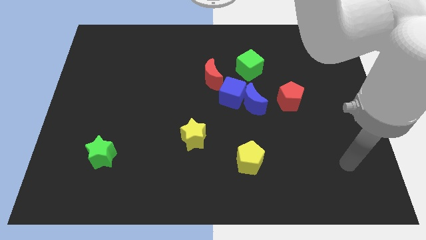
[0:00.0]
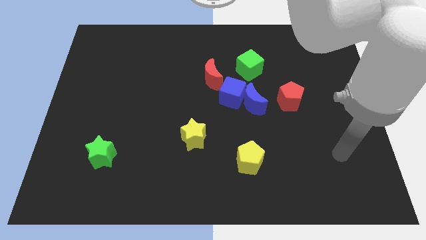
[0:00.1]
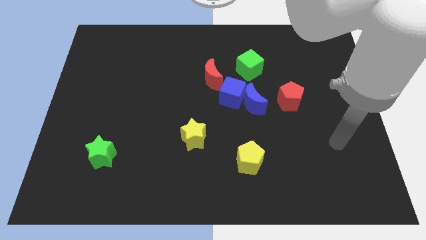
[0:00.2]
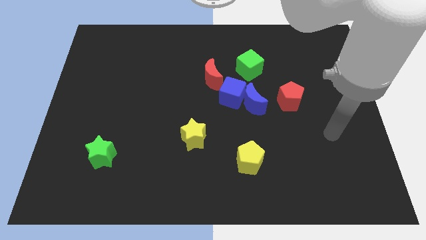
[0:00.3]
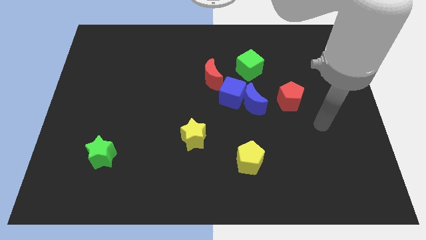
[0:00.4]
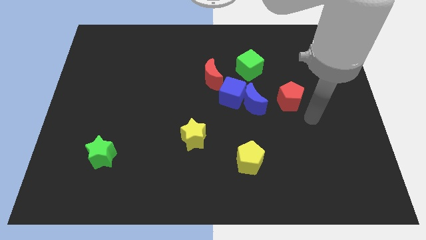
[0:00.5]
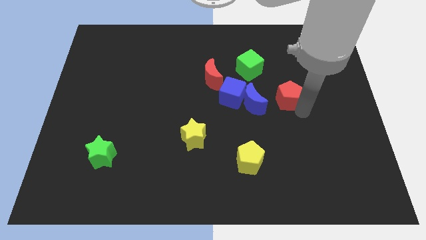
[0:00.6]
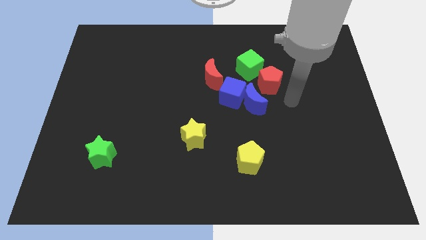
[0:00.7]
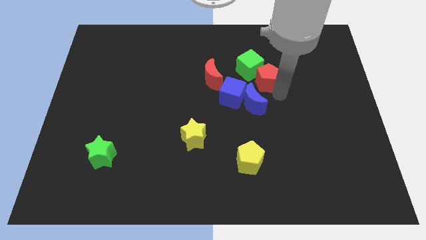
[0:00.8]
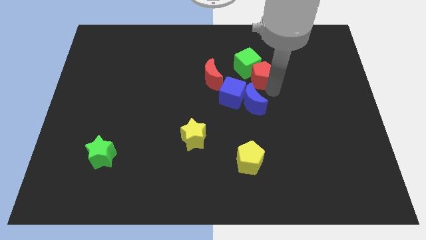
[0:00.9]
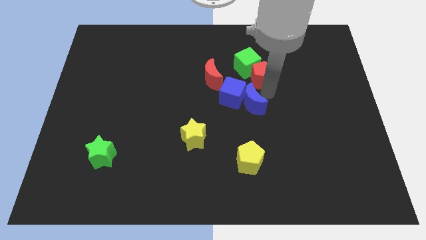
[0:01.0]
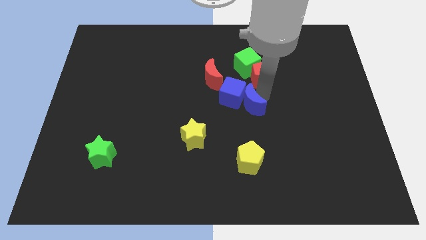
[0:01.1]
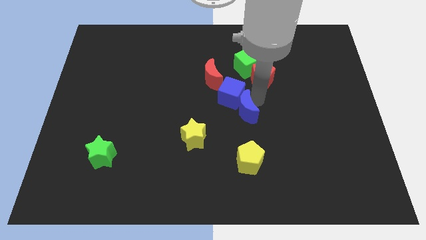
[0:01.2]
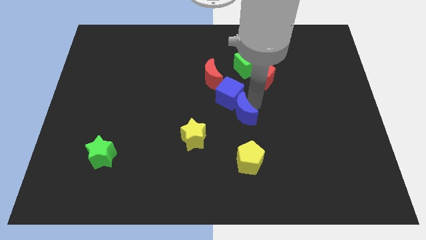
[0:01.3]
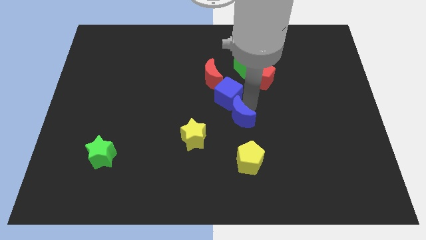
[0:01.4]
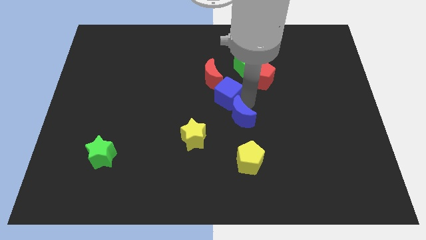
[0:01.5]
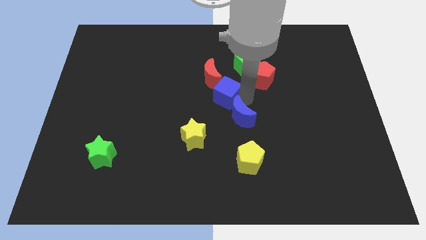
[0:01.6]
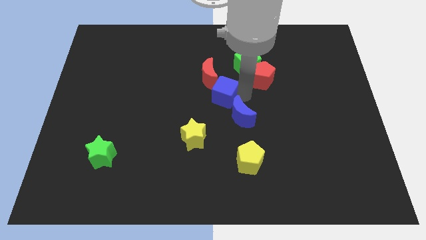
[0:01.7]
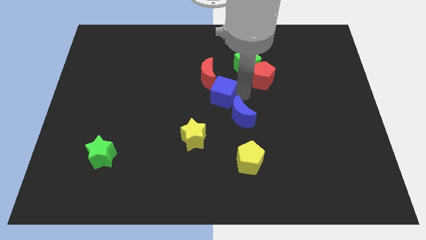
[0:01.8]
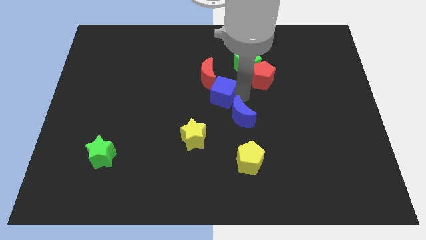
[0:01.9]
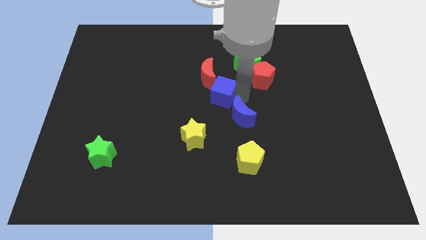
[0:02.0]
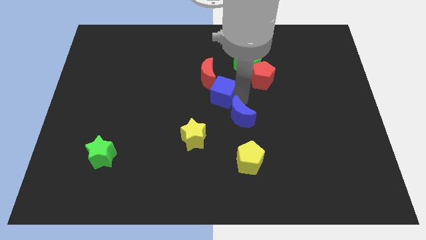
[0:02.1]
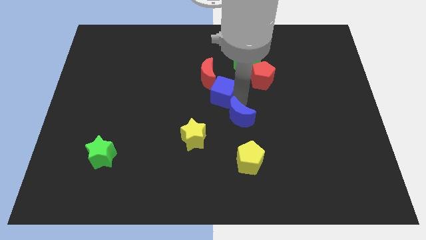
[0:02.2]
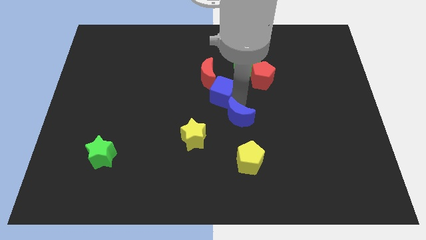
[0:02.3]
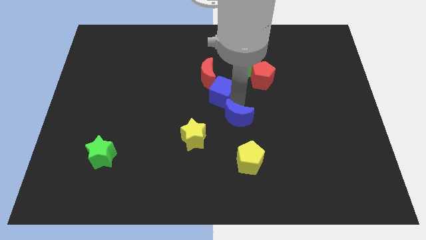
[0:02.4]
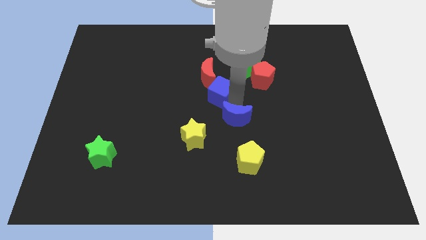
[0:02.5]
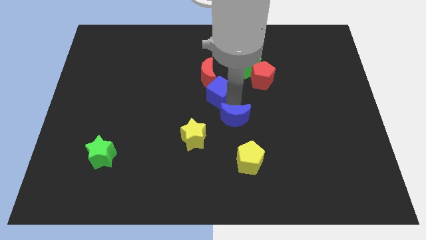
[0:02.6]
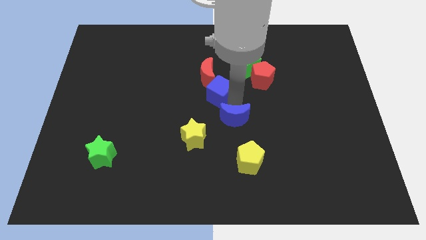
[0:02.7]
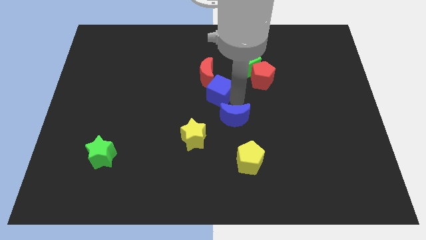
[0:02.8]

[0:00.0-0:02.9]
move the blue moon away from the blue cube and red pentagon

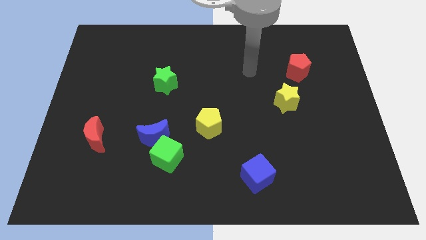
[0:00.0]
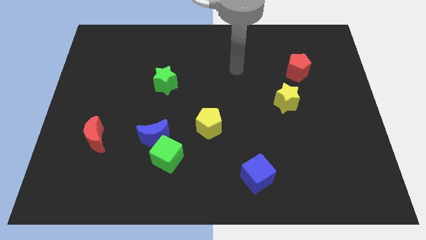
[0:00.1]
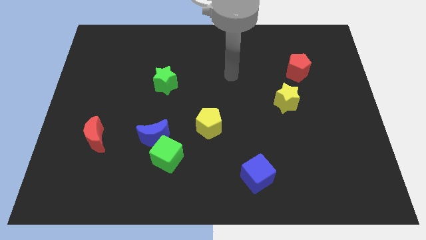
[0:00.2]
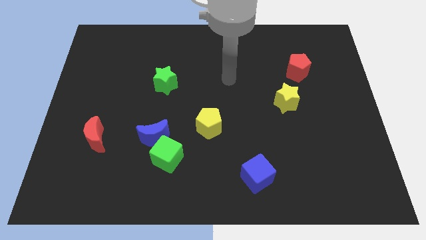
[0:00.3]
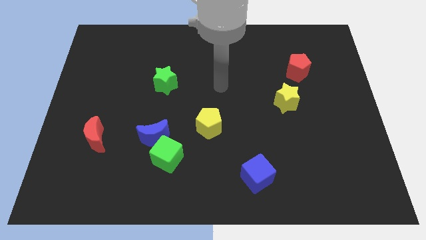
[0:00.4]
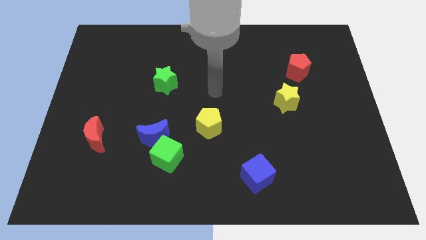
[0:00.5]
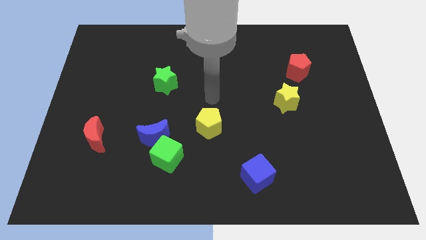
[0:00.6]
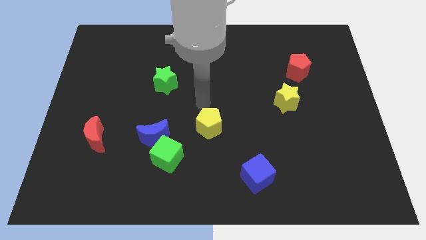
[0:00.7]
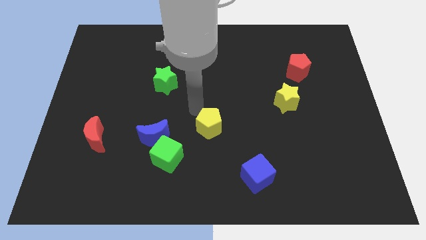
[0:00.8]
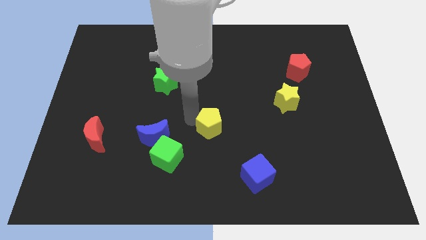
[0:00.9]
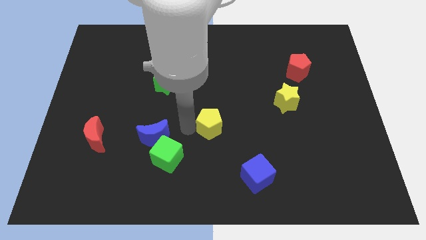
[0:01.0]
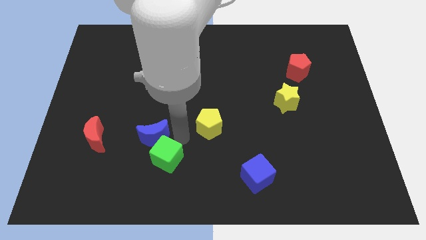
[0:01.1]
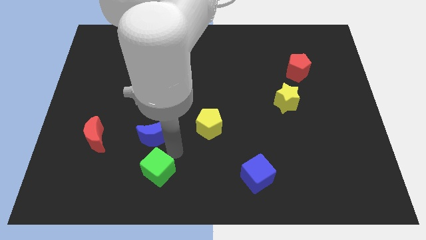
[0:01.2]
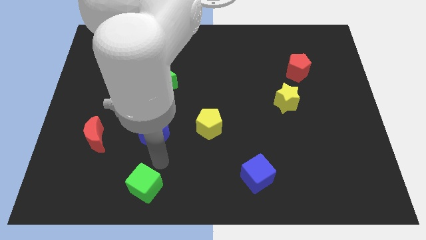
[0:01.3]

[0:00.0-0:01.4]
move the blue moon away from the green cube

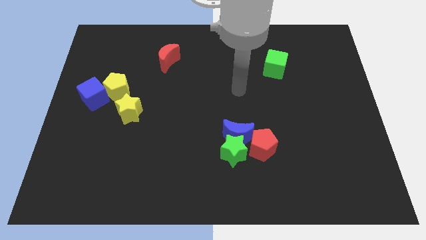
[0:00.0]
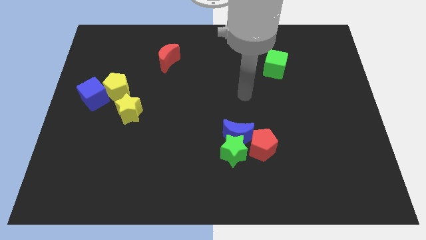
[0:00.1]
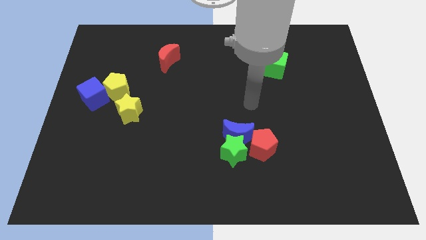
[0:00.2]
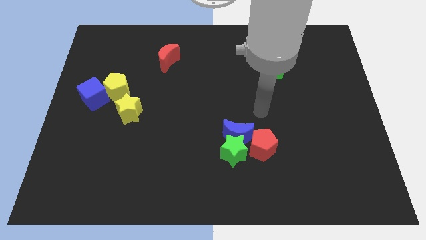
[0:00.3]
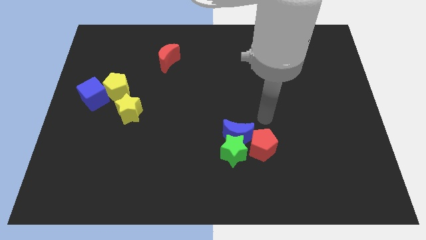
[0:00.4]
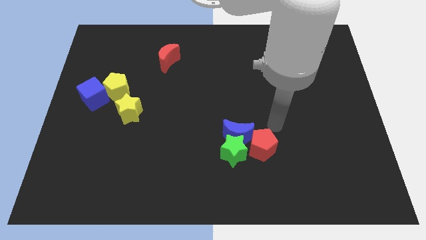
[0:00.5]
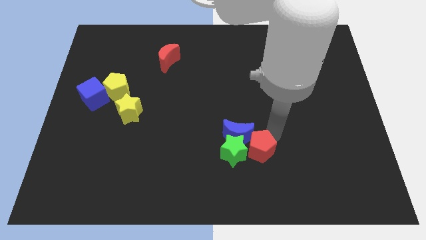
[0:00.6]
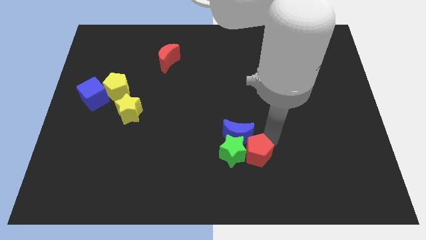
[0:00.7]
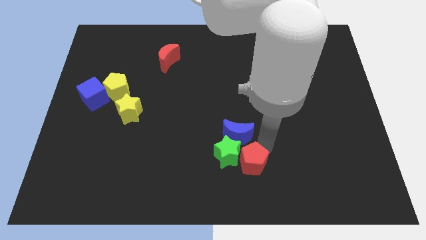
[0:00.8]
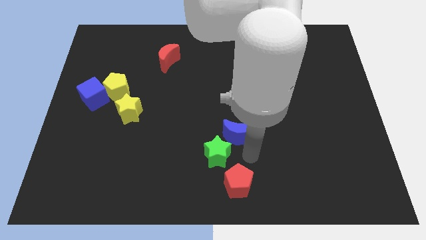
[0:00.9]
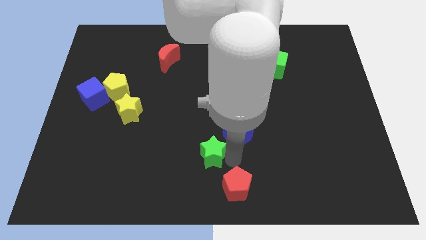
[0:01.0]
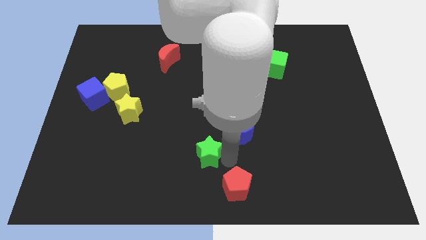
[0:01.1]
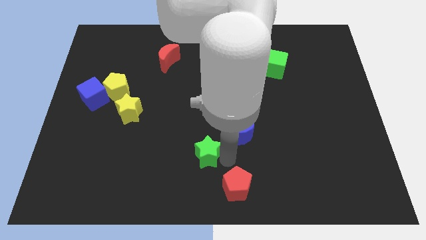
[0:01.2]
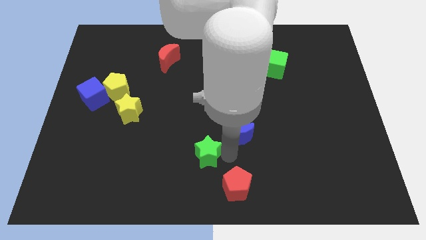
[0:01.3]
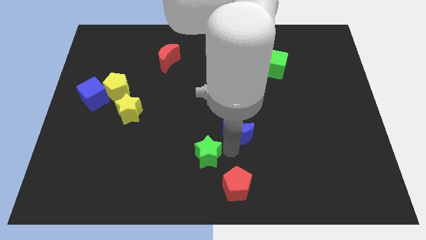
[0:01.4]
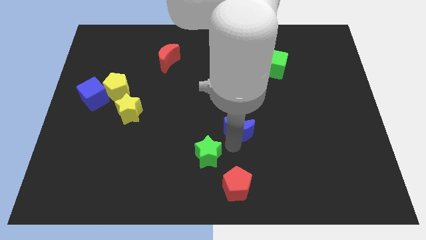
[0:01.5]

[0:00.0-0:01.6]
pull the blue moon apart from the green star and red pentagon

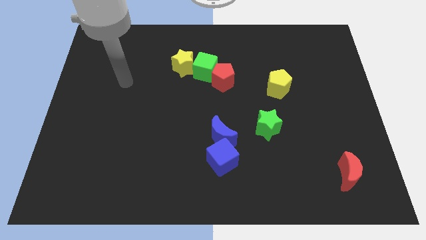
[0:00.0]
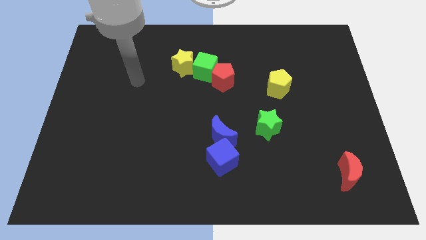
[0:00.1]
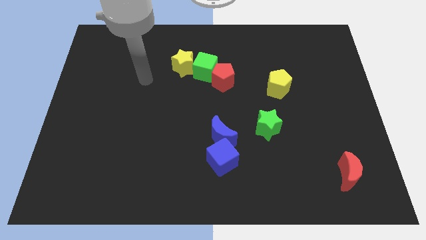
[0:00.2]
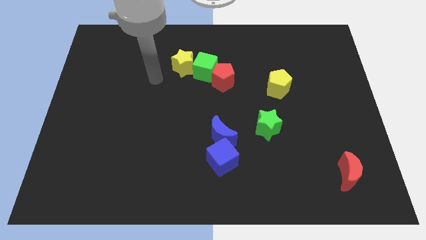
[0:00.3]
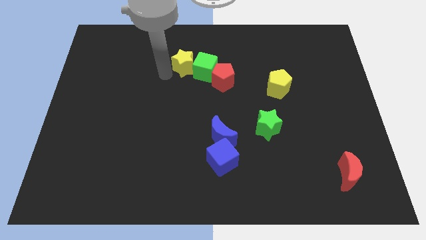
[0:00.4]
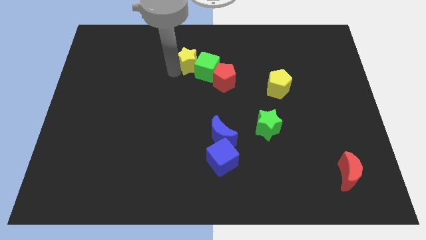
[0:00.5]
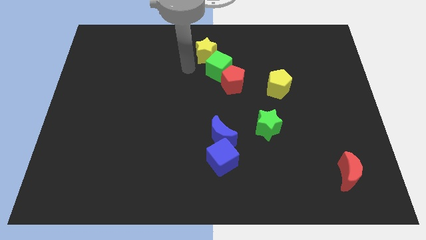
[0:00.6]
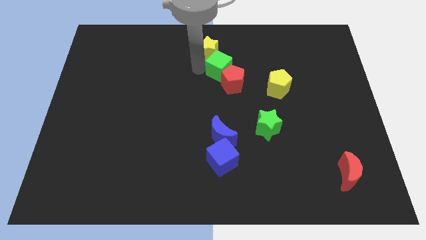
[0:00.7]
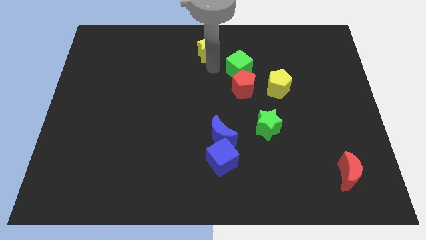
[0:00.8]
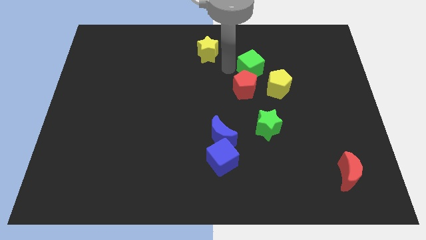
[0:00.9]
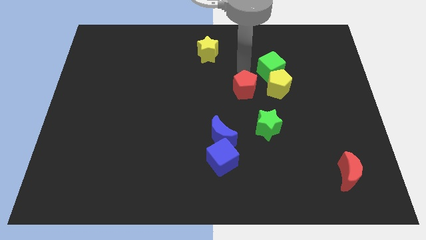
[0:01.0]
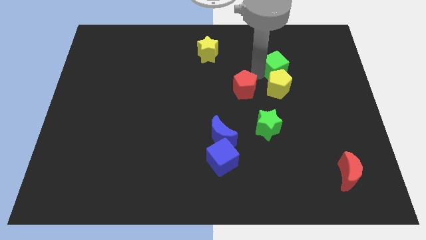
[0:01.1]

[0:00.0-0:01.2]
pull the red pentagon apart from the green cube

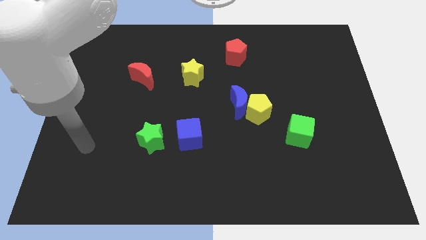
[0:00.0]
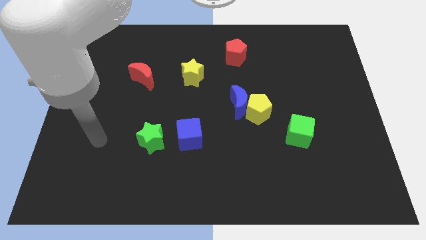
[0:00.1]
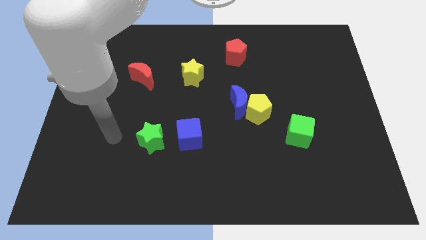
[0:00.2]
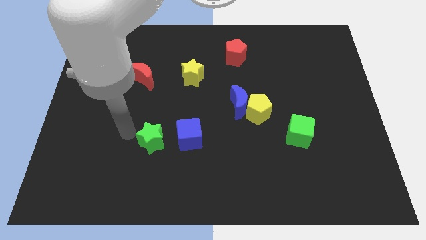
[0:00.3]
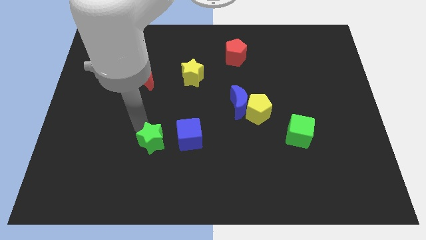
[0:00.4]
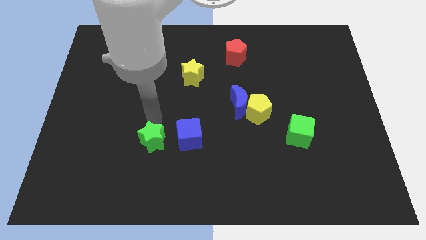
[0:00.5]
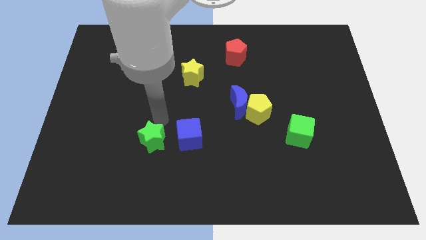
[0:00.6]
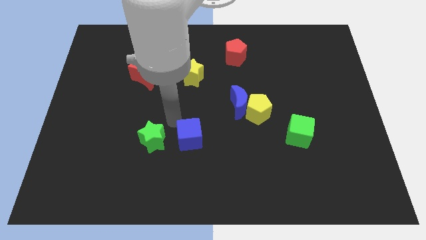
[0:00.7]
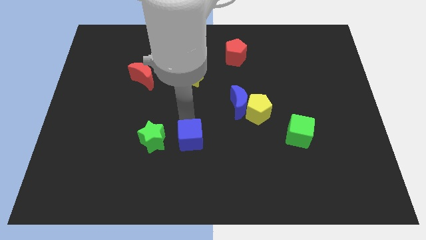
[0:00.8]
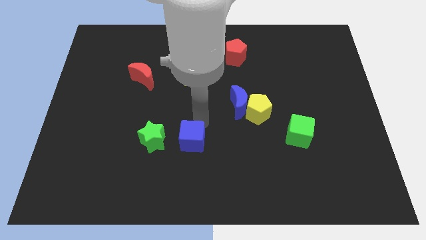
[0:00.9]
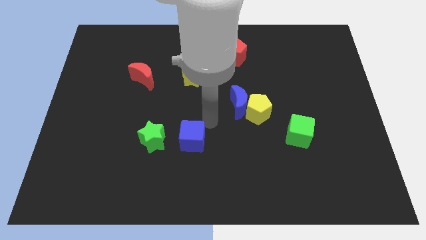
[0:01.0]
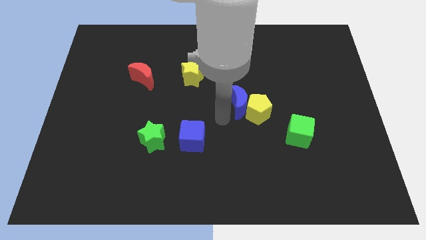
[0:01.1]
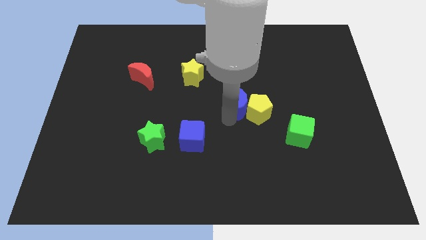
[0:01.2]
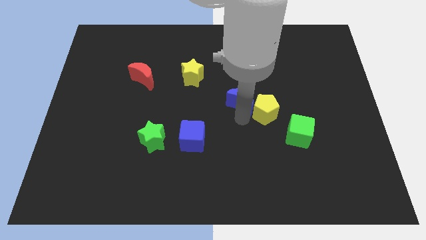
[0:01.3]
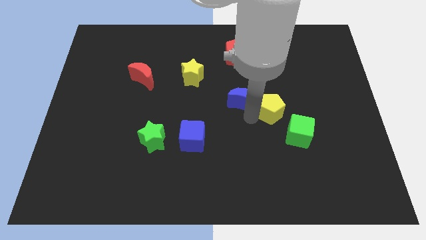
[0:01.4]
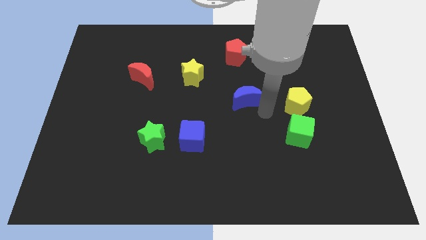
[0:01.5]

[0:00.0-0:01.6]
move the blue moon away from the yellow pentagon

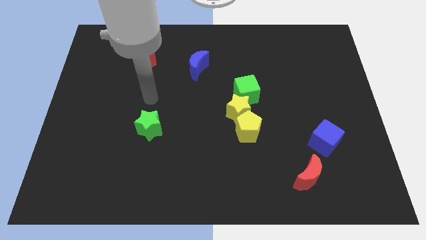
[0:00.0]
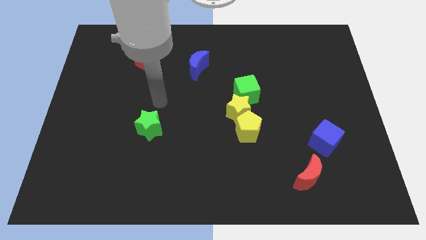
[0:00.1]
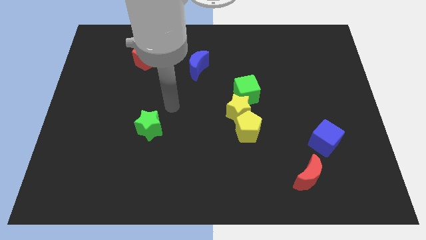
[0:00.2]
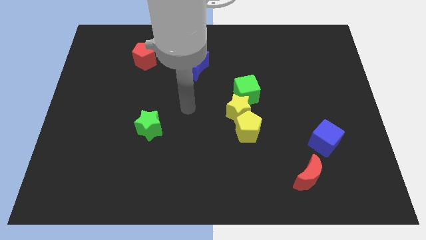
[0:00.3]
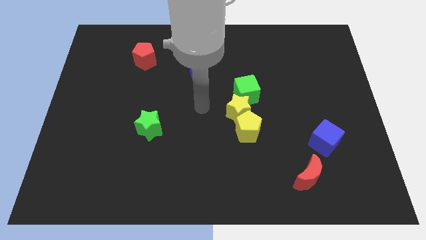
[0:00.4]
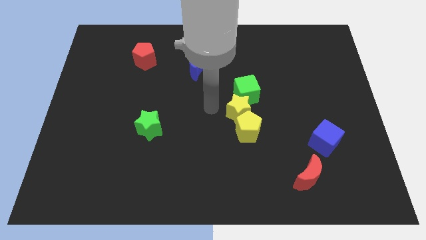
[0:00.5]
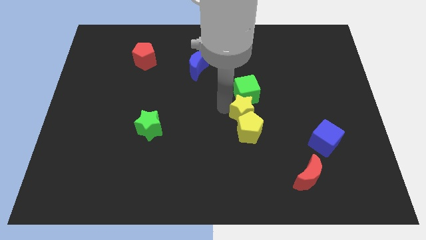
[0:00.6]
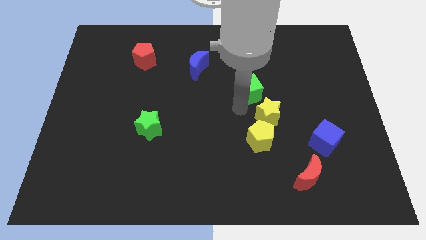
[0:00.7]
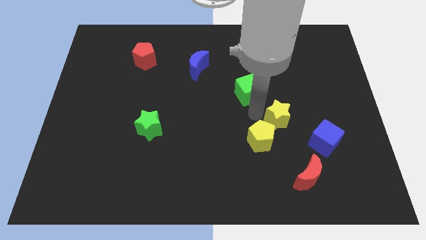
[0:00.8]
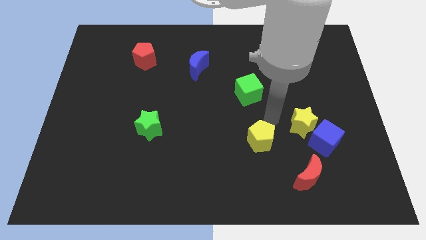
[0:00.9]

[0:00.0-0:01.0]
separate the yellow pentagon from the yellow star
